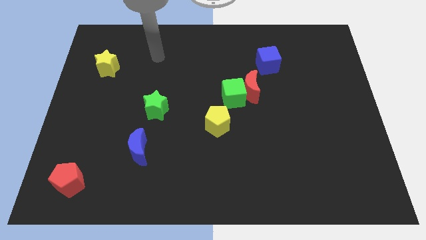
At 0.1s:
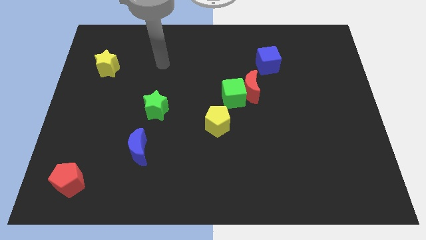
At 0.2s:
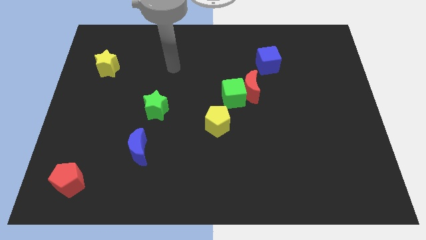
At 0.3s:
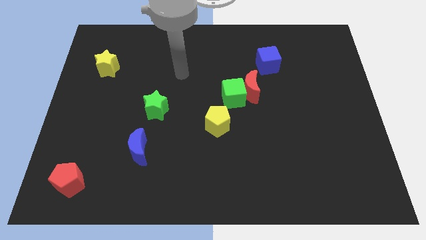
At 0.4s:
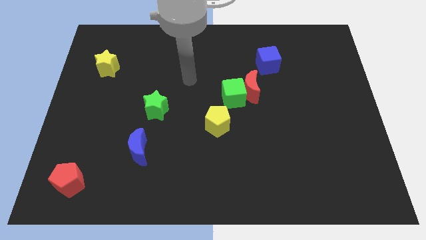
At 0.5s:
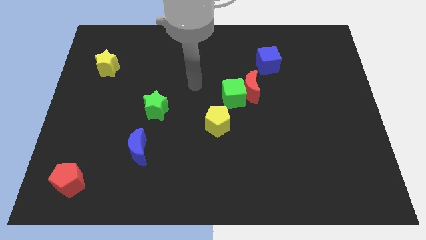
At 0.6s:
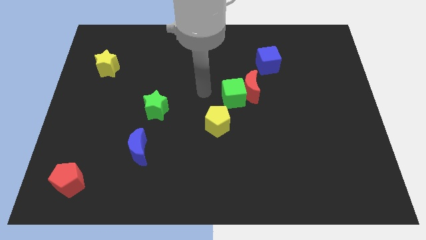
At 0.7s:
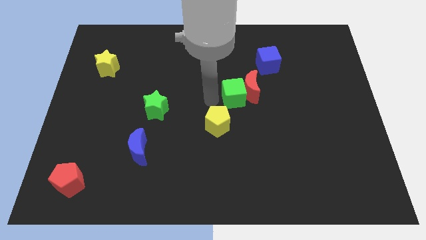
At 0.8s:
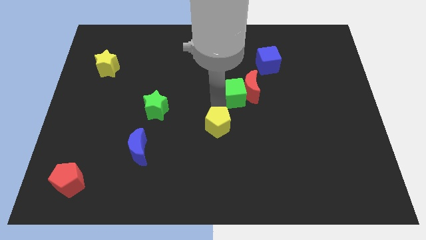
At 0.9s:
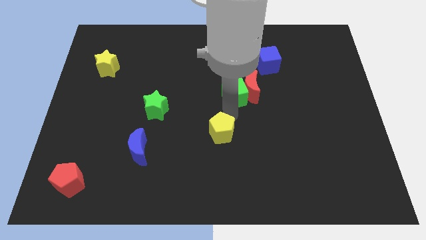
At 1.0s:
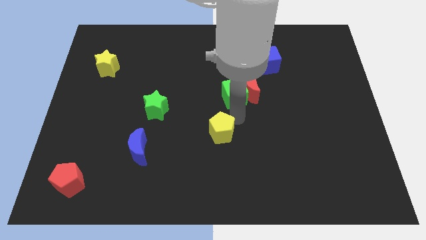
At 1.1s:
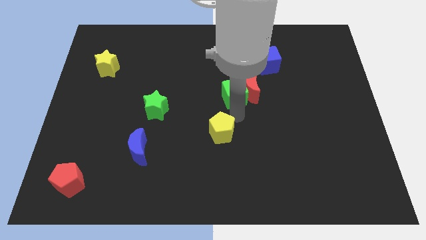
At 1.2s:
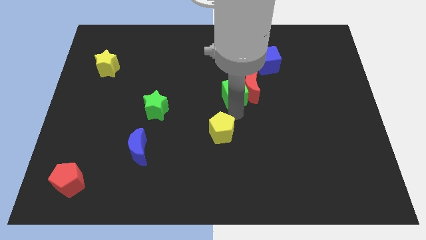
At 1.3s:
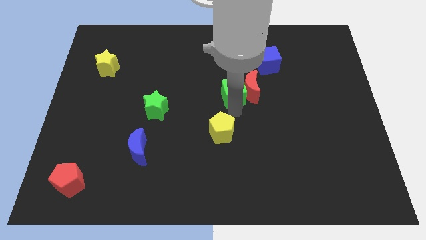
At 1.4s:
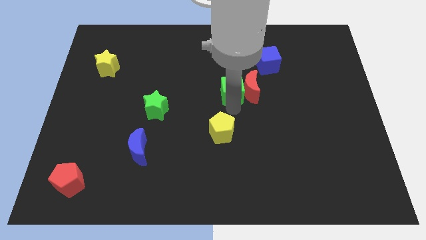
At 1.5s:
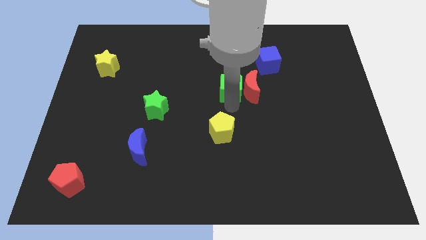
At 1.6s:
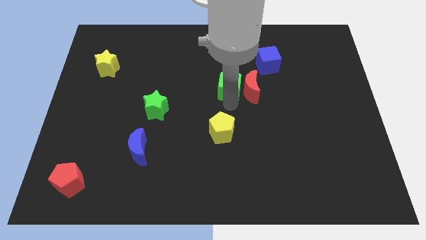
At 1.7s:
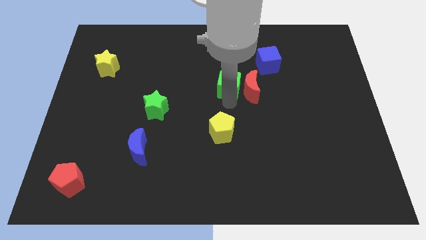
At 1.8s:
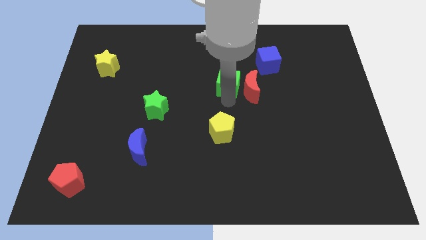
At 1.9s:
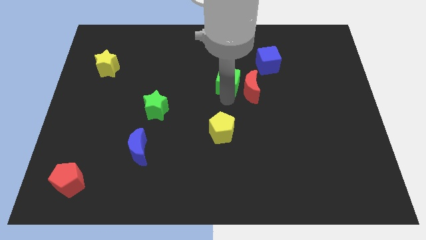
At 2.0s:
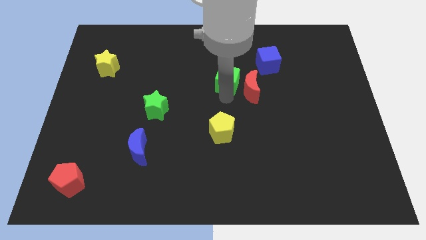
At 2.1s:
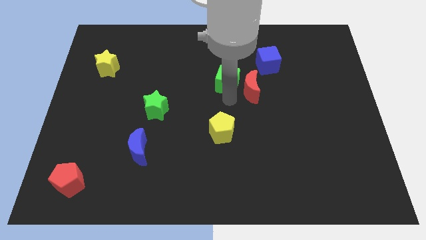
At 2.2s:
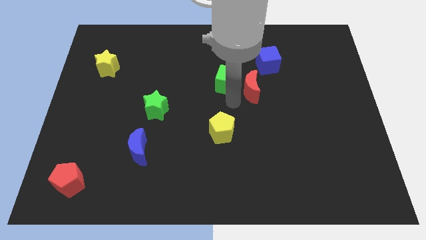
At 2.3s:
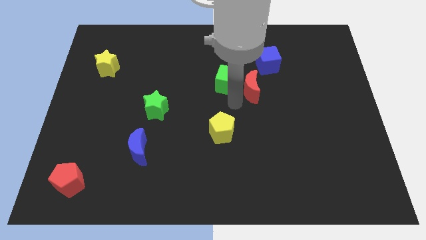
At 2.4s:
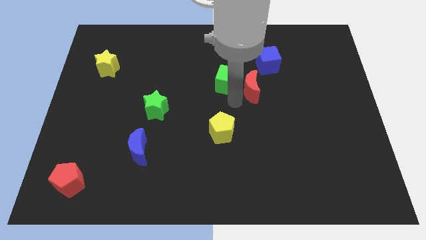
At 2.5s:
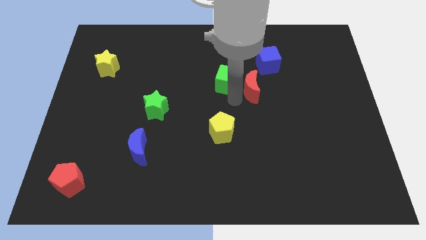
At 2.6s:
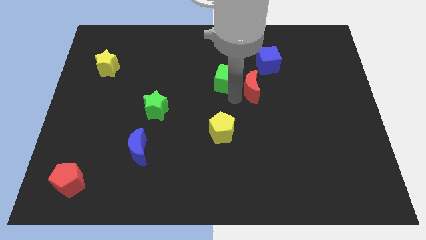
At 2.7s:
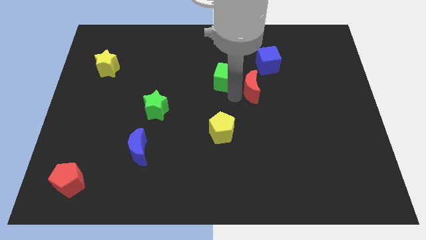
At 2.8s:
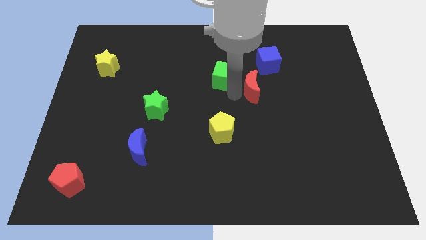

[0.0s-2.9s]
separate the green cube from the red moon and yellow pentagon

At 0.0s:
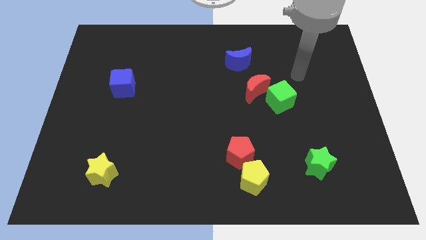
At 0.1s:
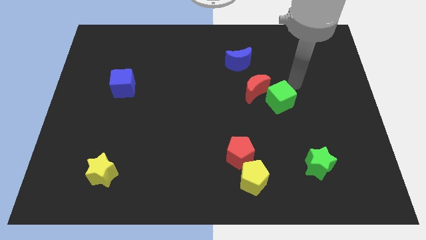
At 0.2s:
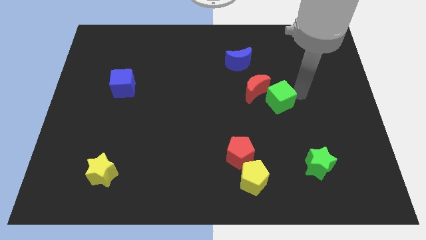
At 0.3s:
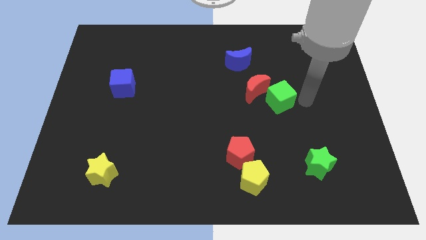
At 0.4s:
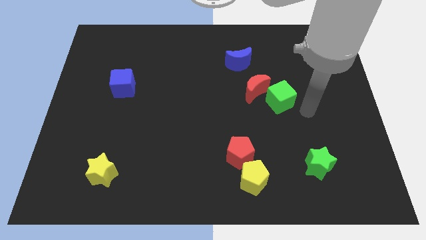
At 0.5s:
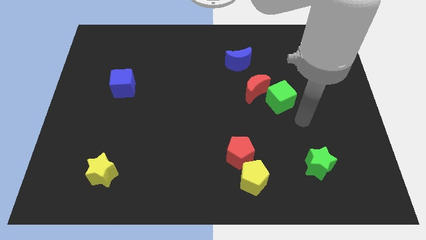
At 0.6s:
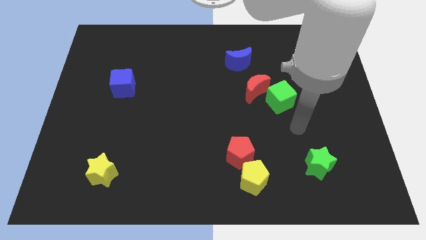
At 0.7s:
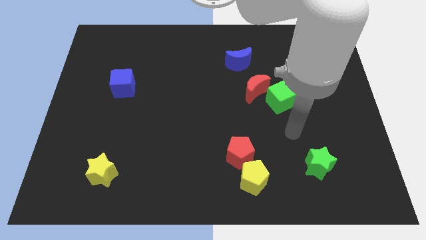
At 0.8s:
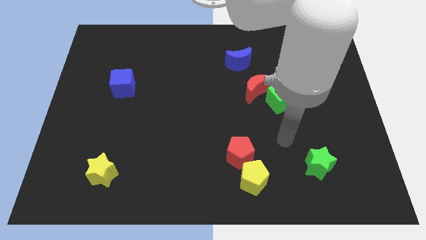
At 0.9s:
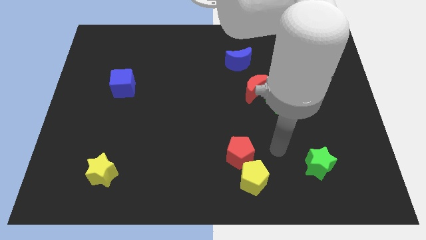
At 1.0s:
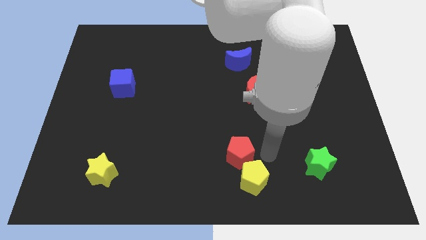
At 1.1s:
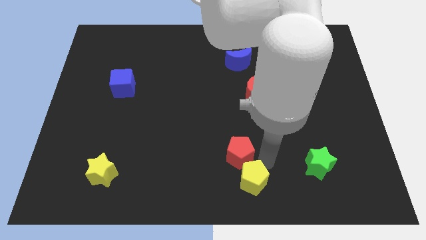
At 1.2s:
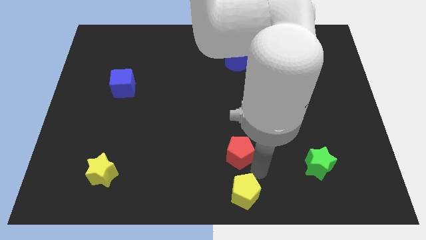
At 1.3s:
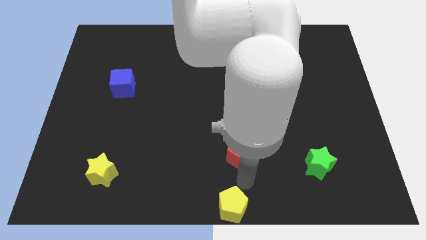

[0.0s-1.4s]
move the red pentagon away from the yellow pentagon

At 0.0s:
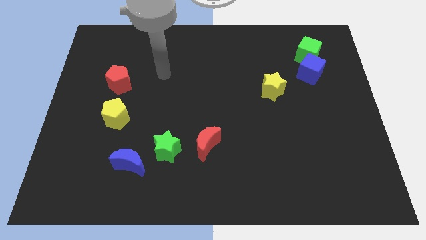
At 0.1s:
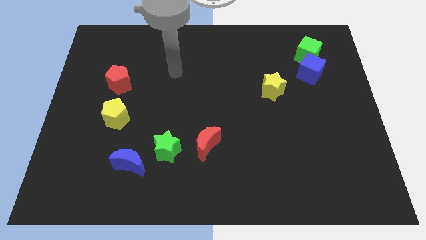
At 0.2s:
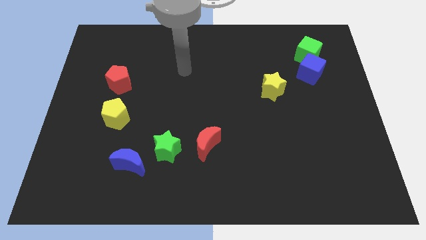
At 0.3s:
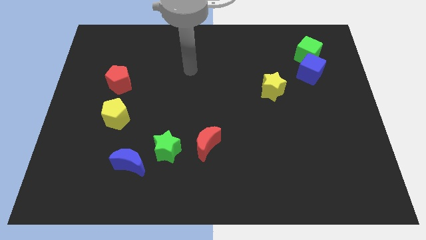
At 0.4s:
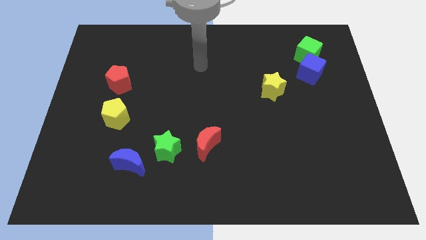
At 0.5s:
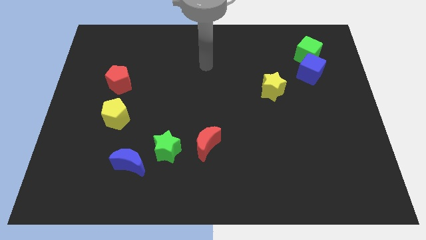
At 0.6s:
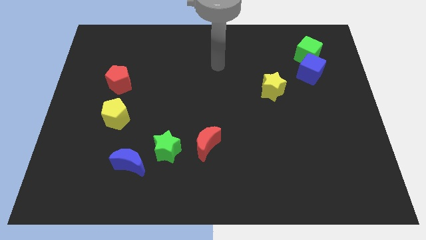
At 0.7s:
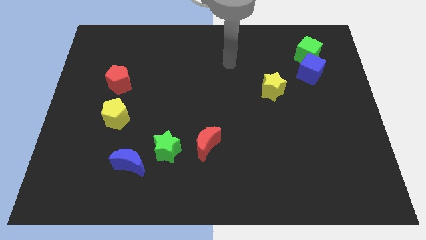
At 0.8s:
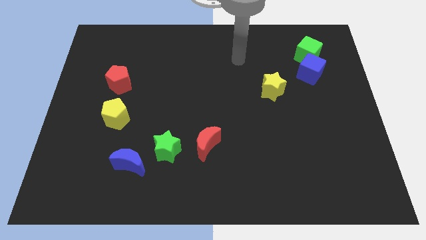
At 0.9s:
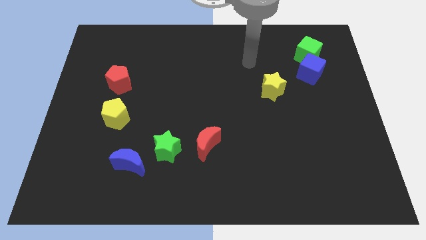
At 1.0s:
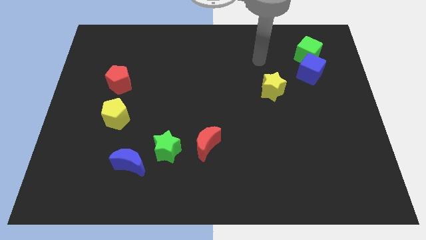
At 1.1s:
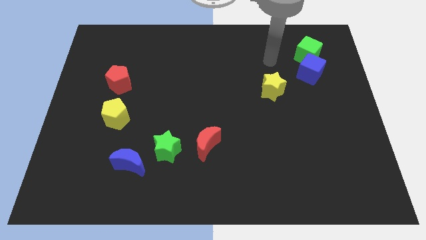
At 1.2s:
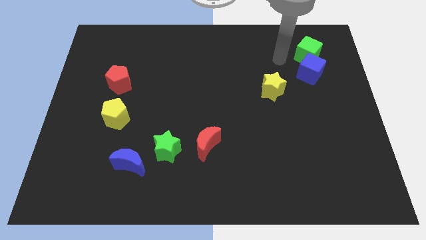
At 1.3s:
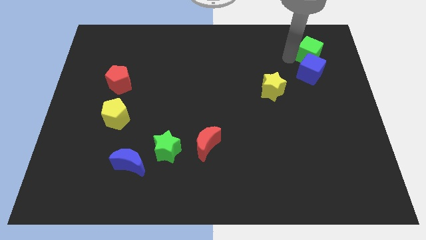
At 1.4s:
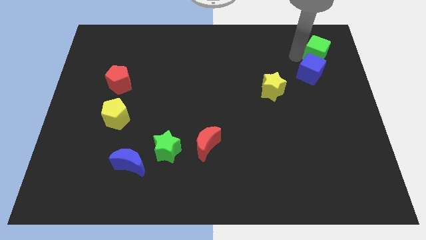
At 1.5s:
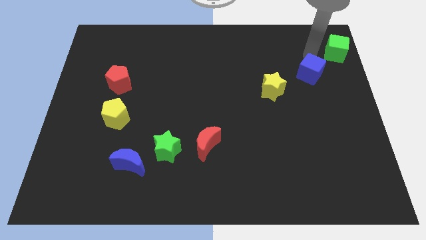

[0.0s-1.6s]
separate the blue cube from the green cube

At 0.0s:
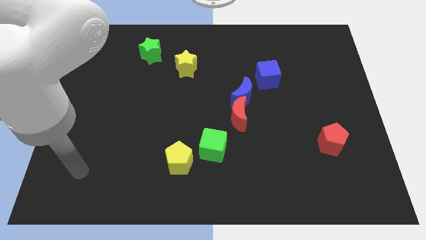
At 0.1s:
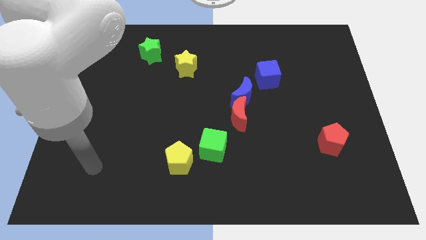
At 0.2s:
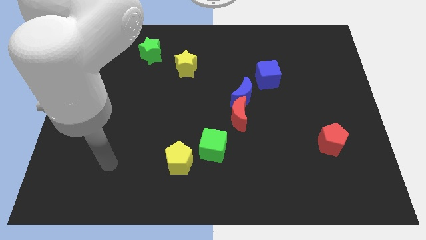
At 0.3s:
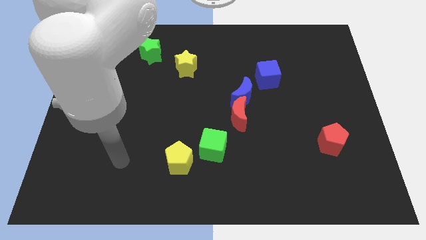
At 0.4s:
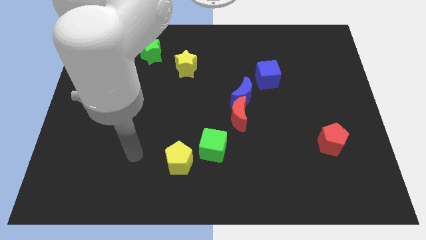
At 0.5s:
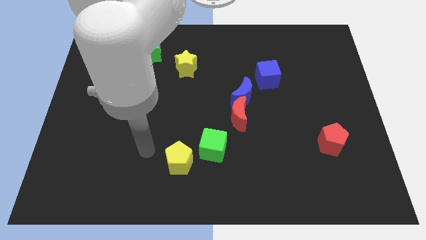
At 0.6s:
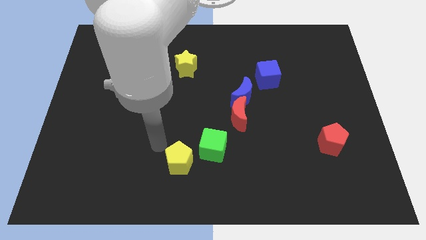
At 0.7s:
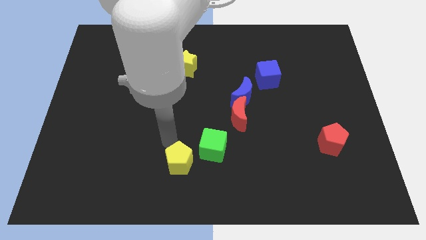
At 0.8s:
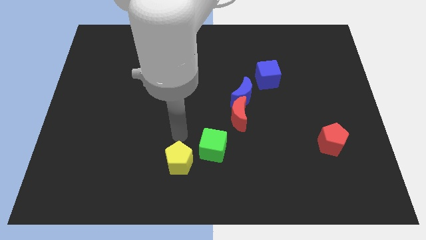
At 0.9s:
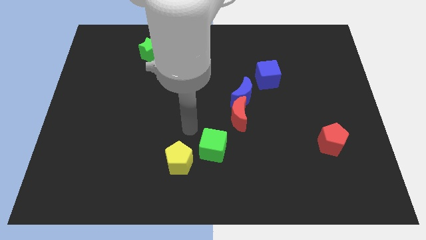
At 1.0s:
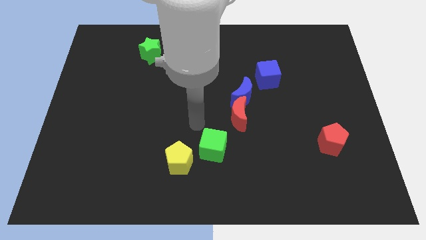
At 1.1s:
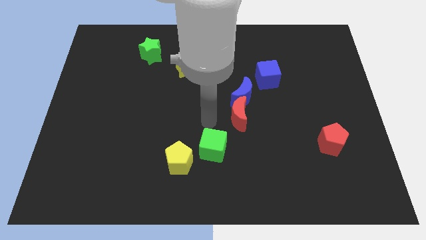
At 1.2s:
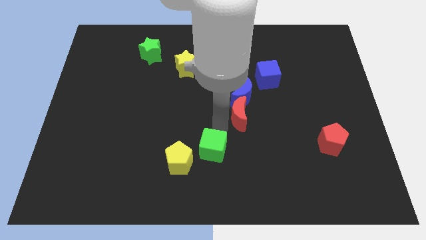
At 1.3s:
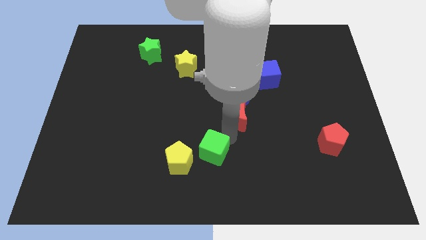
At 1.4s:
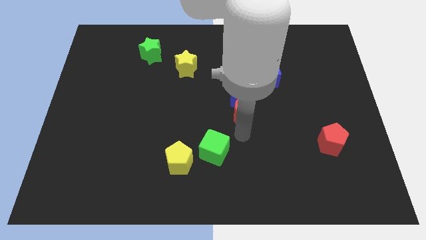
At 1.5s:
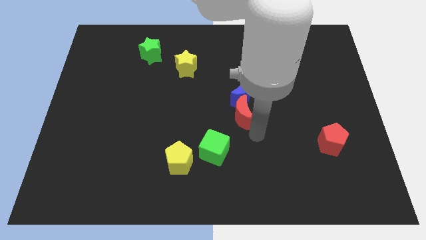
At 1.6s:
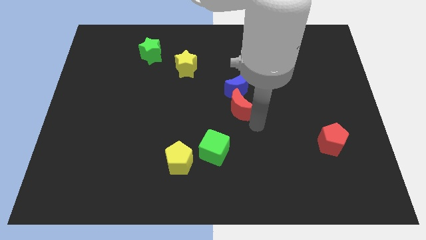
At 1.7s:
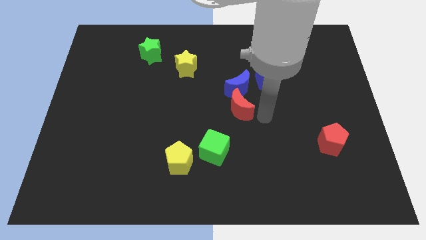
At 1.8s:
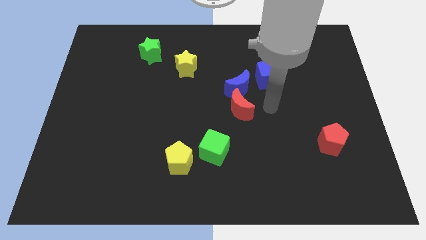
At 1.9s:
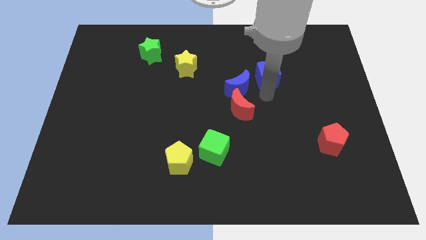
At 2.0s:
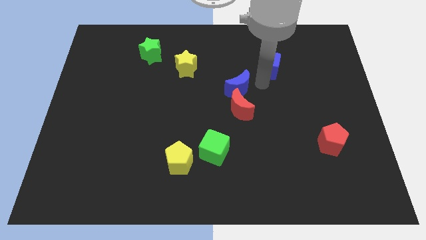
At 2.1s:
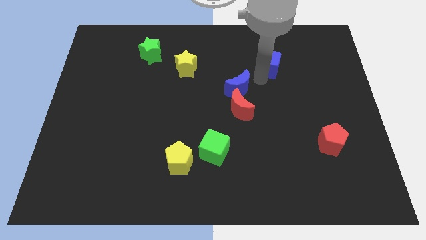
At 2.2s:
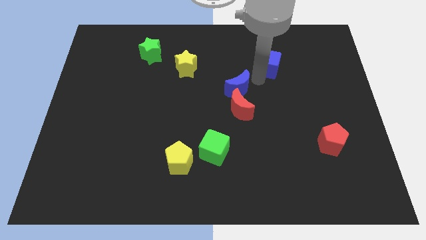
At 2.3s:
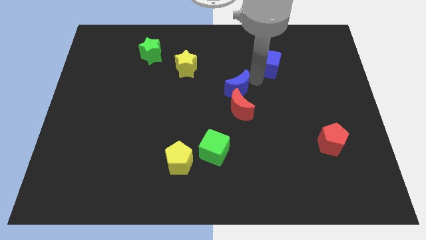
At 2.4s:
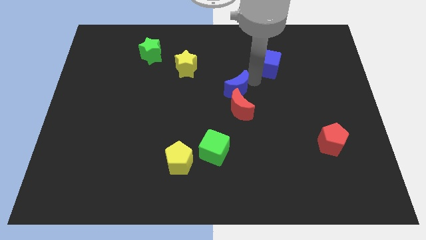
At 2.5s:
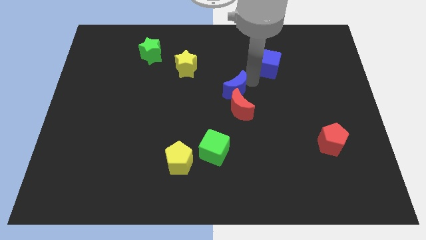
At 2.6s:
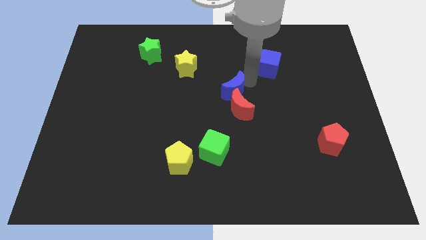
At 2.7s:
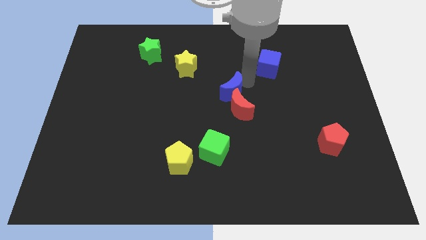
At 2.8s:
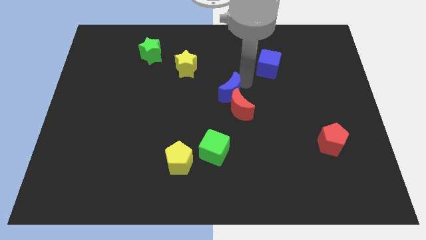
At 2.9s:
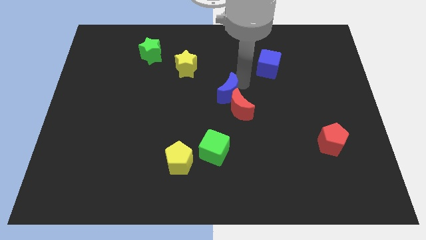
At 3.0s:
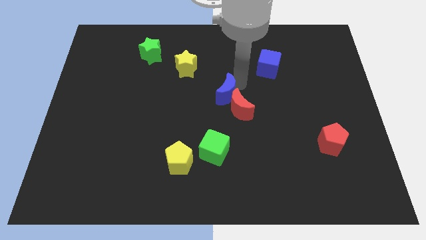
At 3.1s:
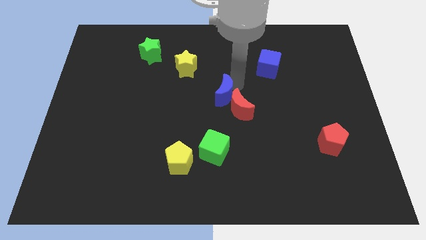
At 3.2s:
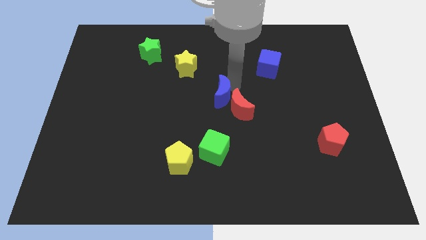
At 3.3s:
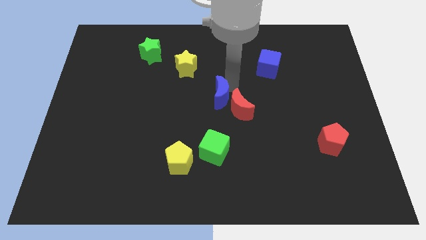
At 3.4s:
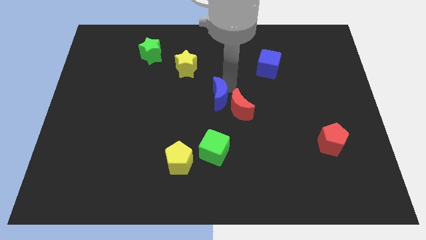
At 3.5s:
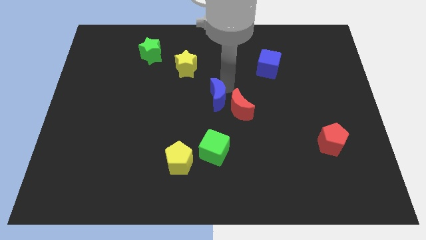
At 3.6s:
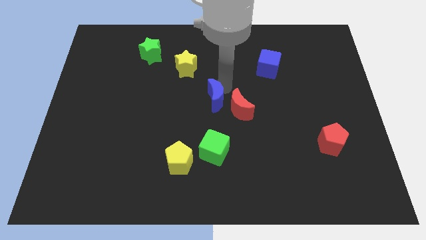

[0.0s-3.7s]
separate the blue moon from the red moon and blue cube

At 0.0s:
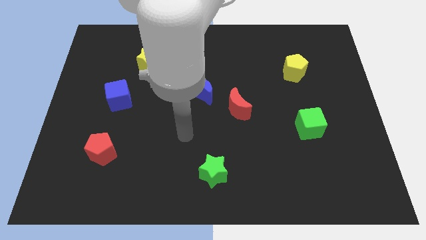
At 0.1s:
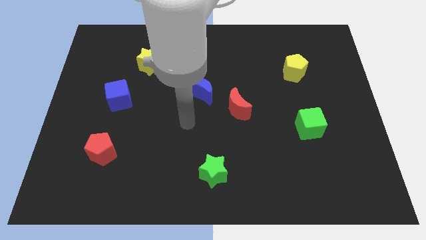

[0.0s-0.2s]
pull the red moon apart from the blue moon
